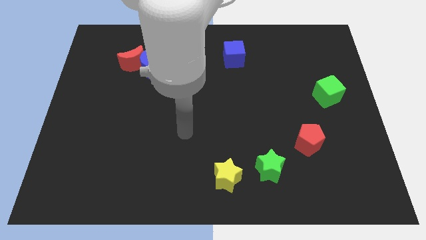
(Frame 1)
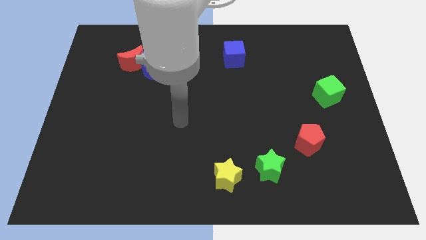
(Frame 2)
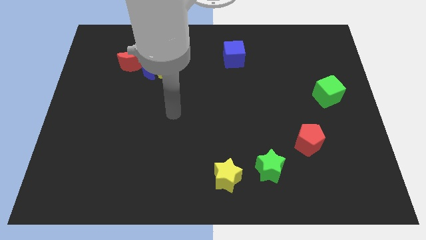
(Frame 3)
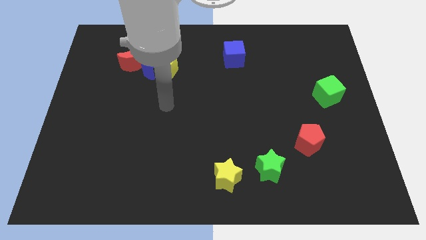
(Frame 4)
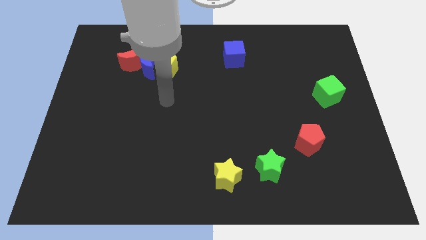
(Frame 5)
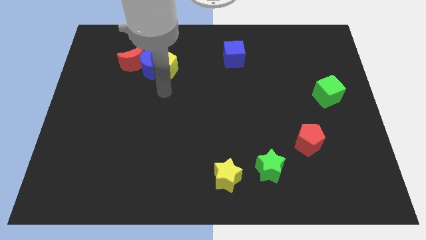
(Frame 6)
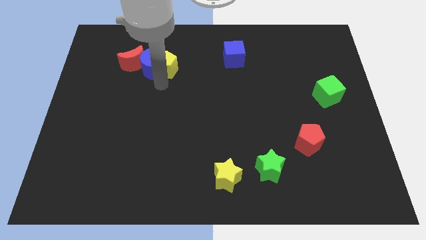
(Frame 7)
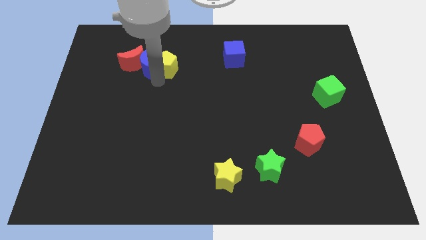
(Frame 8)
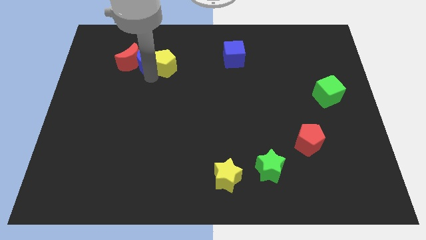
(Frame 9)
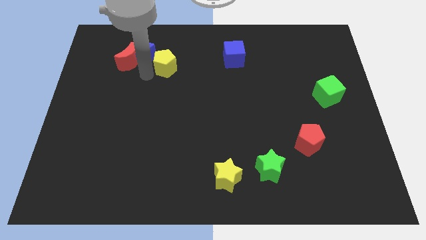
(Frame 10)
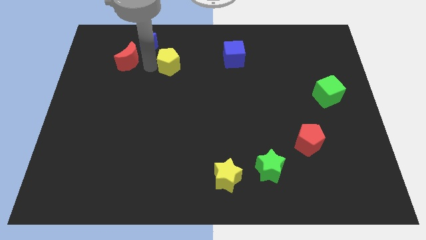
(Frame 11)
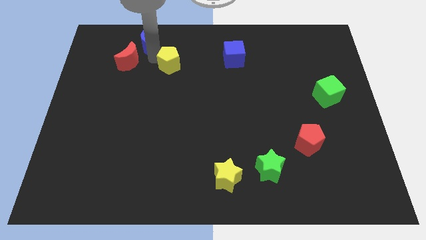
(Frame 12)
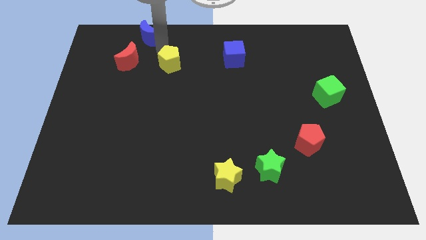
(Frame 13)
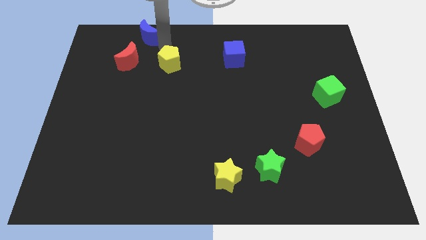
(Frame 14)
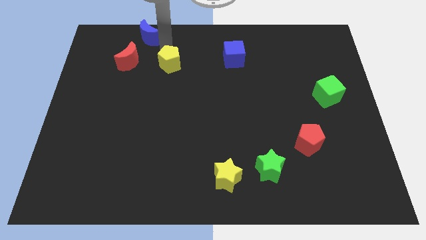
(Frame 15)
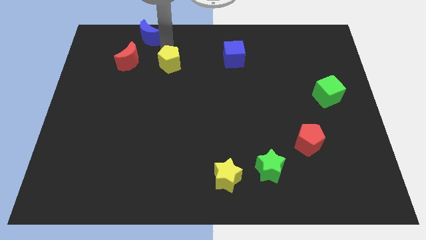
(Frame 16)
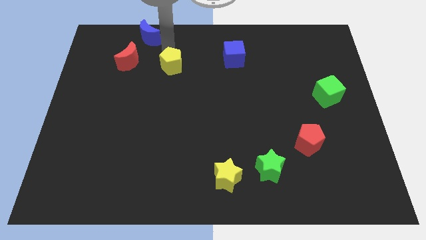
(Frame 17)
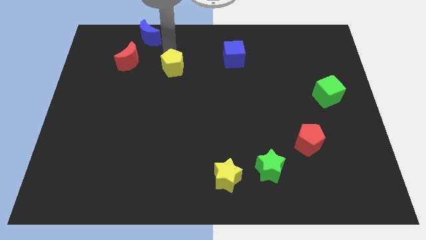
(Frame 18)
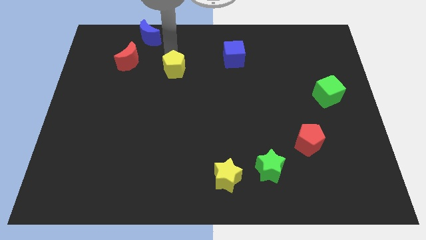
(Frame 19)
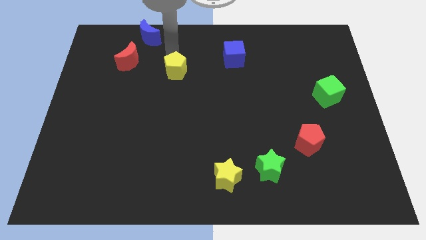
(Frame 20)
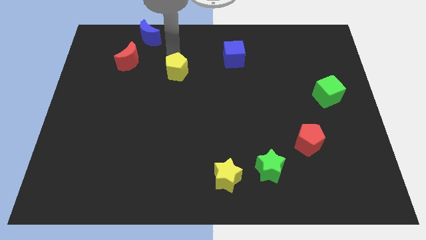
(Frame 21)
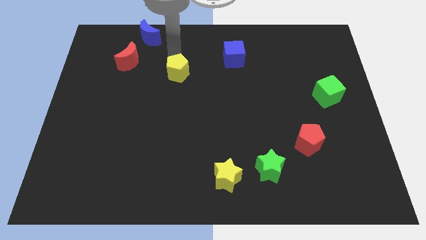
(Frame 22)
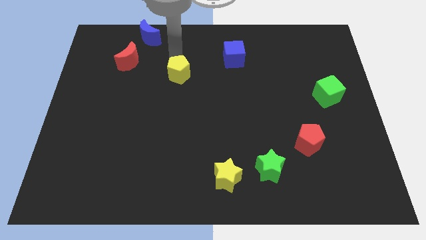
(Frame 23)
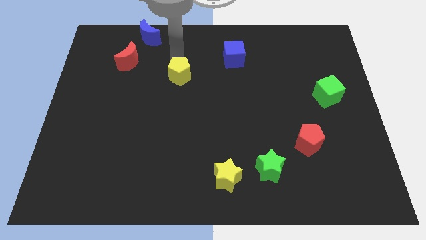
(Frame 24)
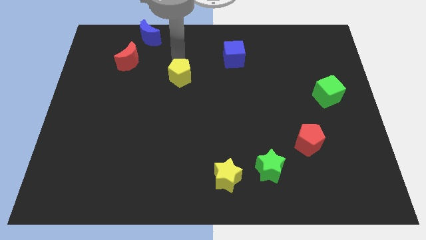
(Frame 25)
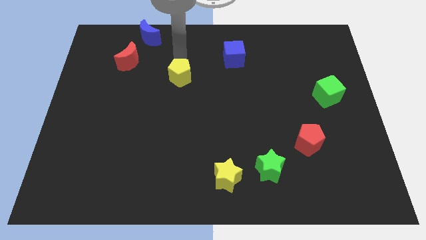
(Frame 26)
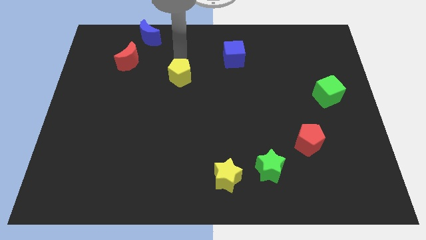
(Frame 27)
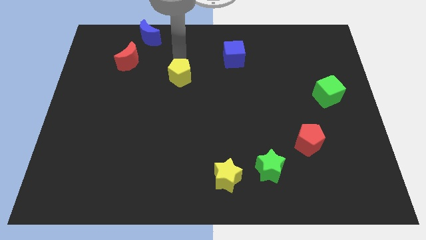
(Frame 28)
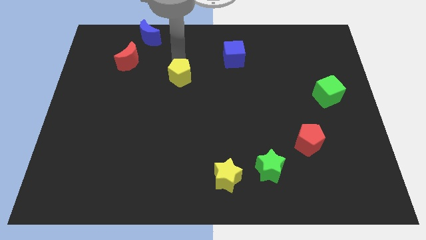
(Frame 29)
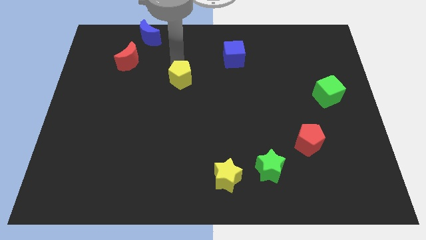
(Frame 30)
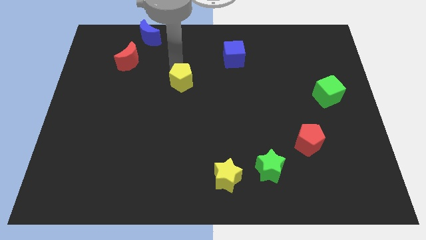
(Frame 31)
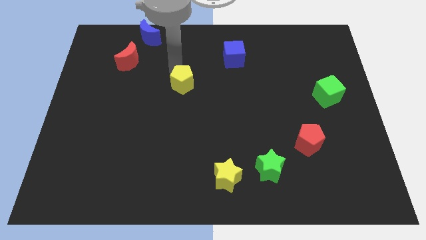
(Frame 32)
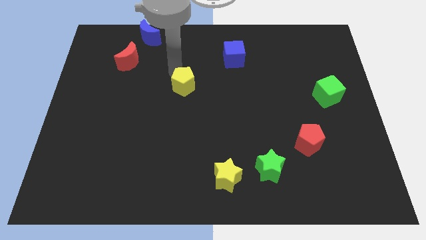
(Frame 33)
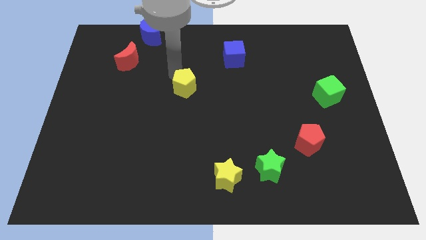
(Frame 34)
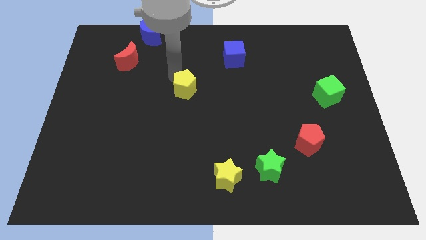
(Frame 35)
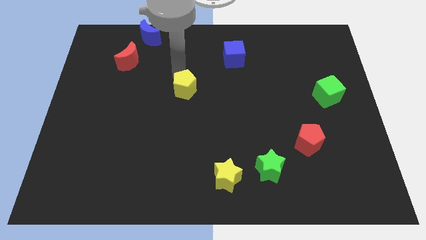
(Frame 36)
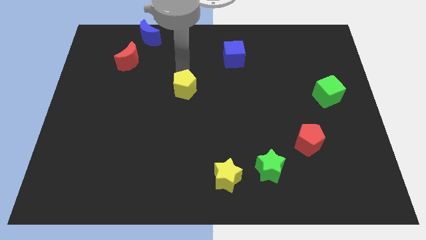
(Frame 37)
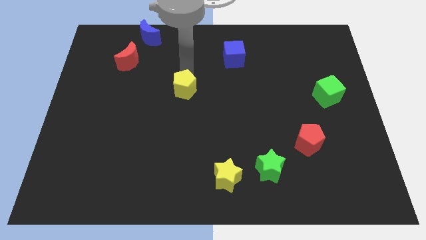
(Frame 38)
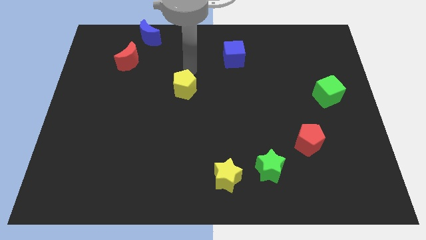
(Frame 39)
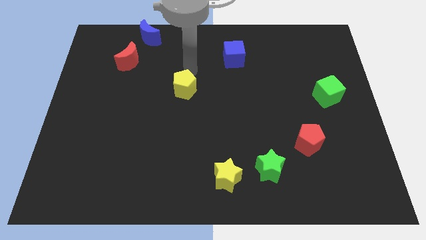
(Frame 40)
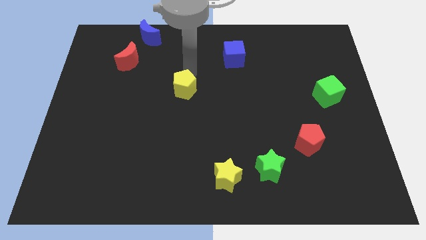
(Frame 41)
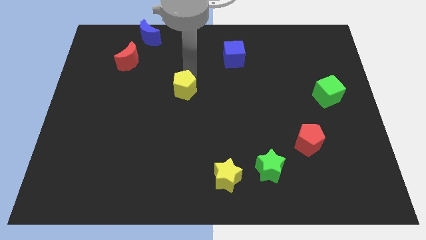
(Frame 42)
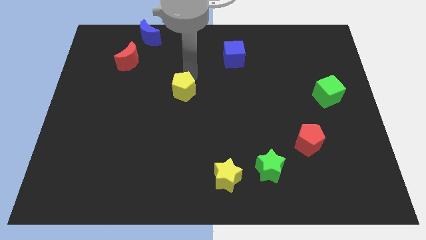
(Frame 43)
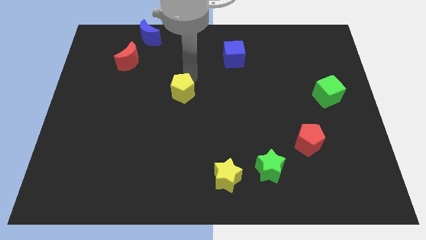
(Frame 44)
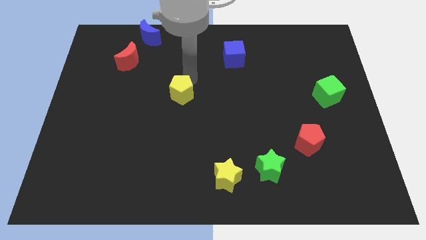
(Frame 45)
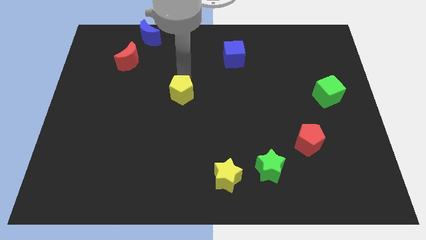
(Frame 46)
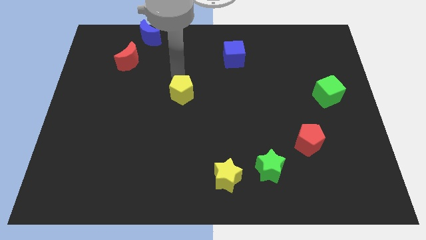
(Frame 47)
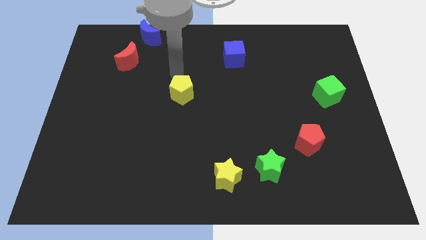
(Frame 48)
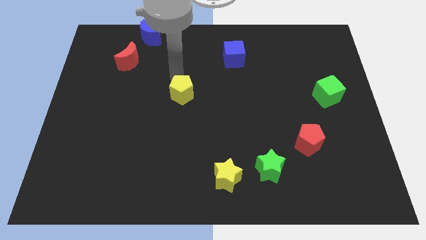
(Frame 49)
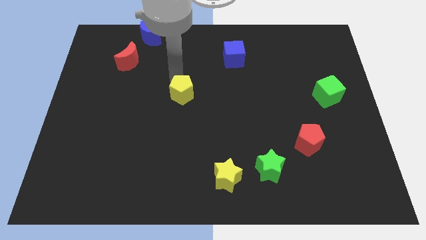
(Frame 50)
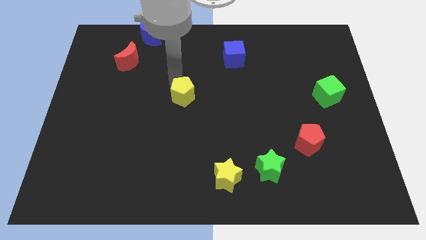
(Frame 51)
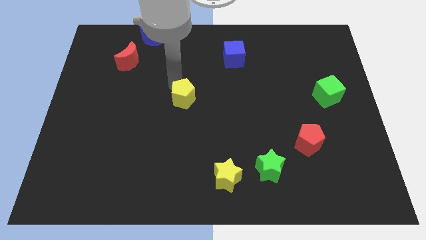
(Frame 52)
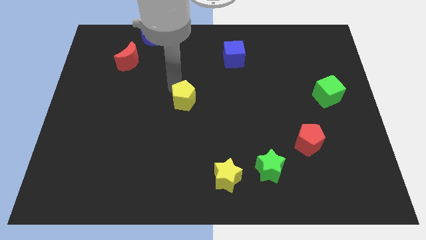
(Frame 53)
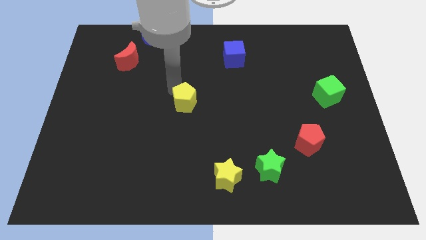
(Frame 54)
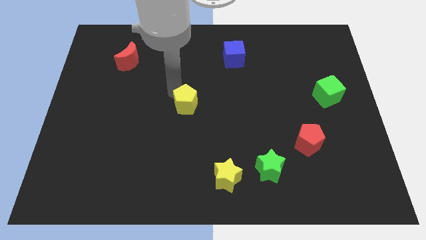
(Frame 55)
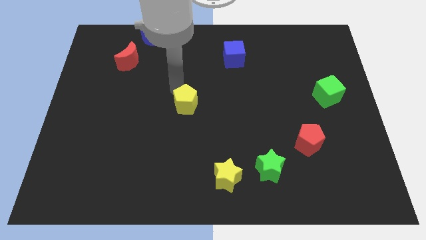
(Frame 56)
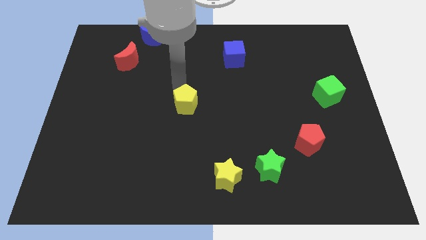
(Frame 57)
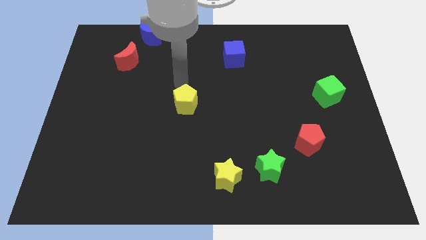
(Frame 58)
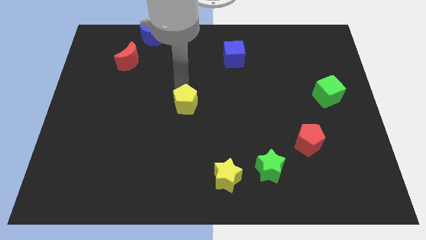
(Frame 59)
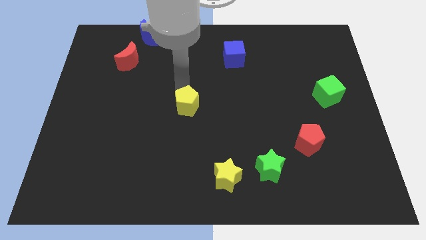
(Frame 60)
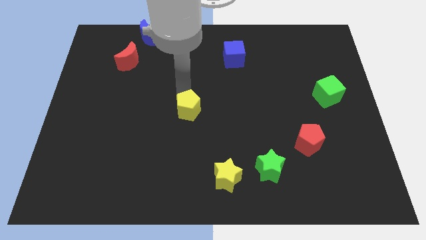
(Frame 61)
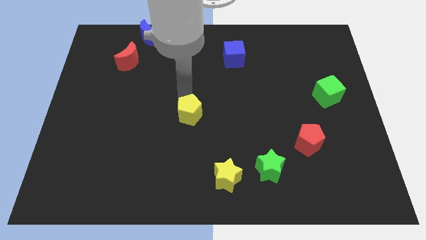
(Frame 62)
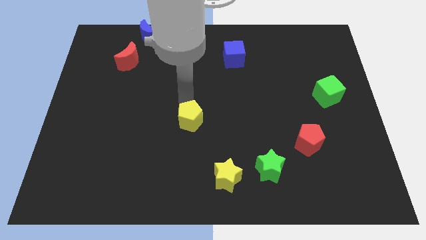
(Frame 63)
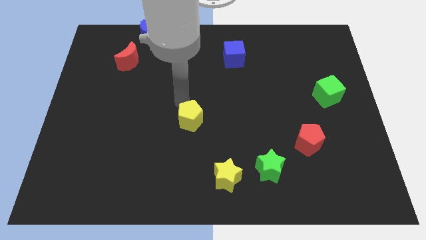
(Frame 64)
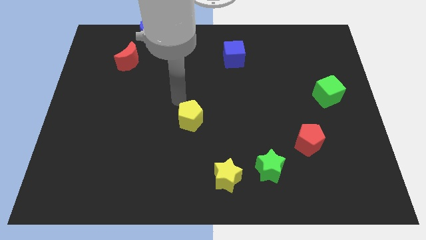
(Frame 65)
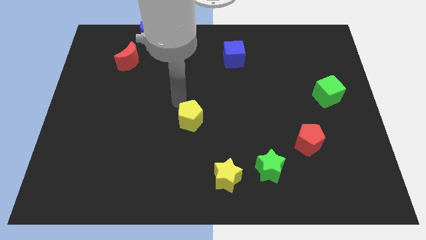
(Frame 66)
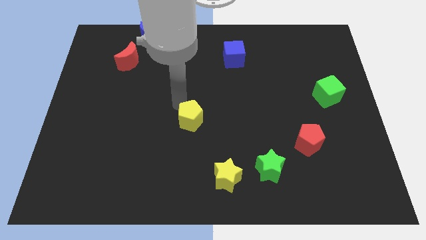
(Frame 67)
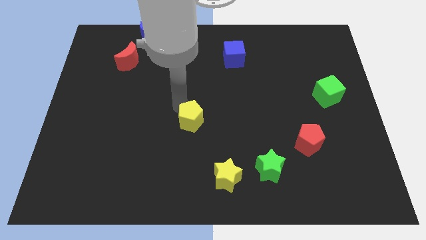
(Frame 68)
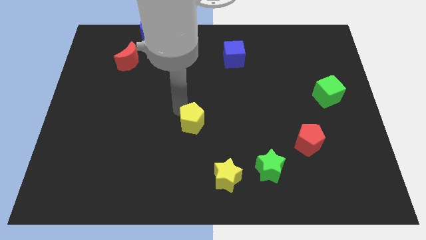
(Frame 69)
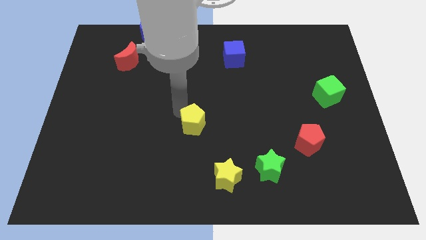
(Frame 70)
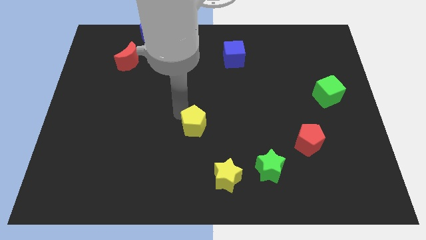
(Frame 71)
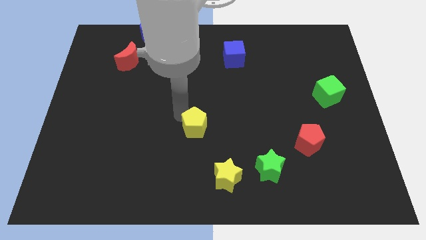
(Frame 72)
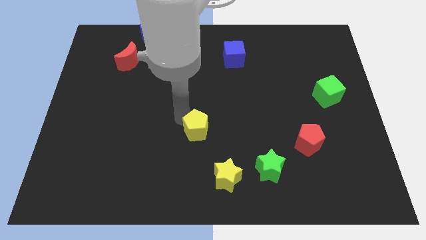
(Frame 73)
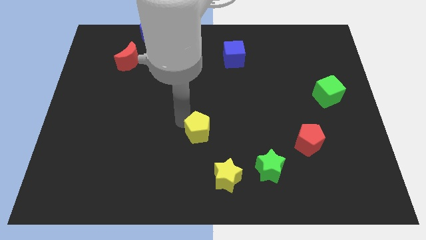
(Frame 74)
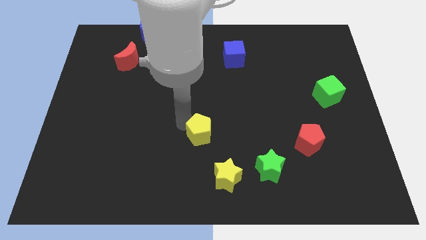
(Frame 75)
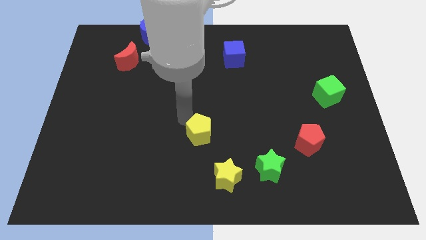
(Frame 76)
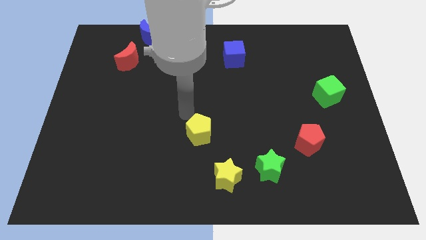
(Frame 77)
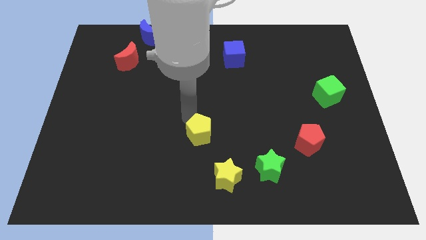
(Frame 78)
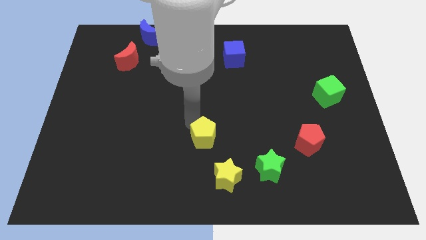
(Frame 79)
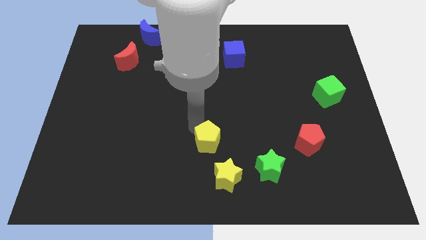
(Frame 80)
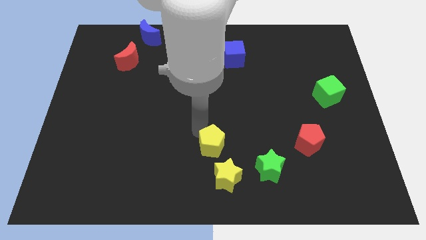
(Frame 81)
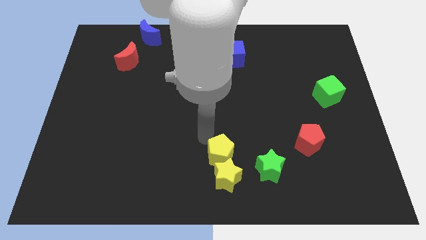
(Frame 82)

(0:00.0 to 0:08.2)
slide the yellow pentagon towards the yellow star
